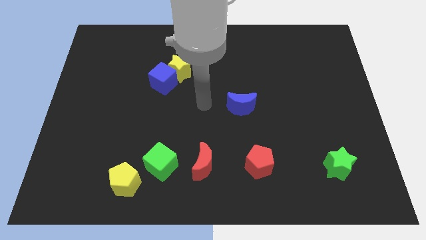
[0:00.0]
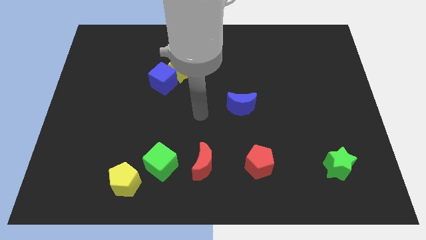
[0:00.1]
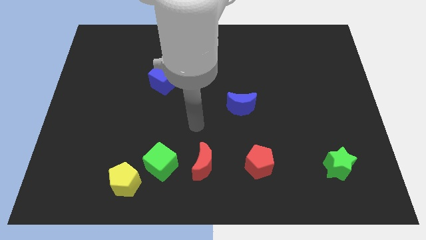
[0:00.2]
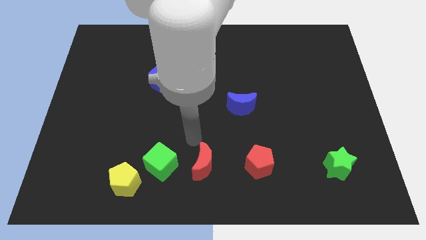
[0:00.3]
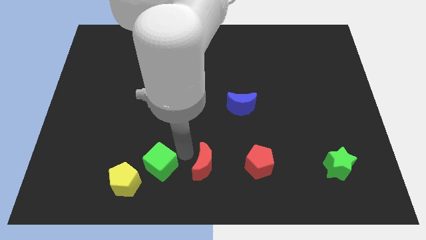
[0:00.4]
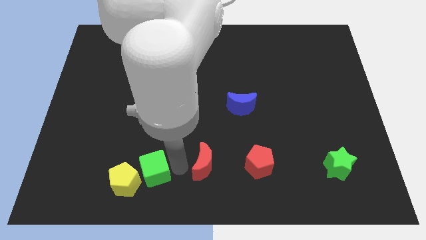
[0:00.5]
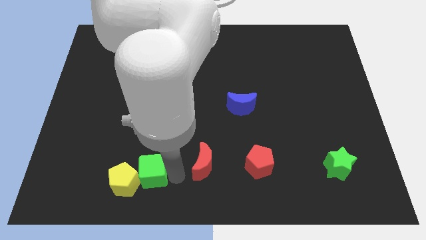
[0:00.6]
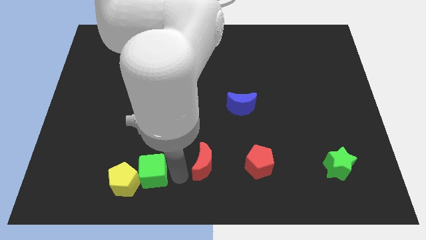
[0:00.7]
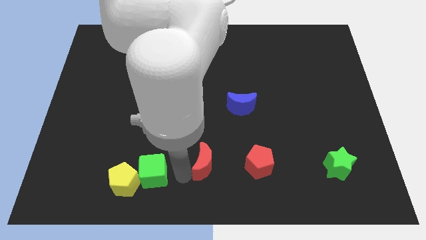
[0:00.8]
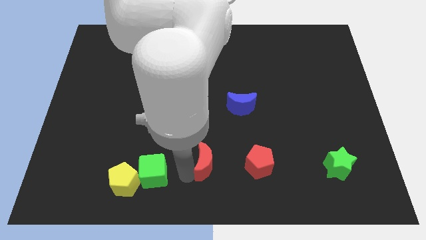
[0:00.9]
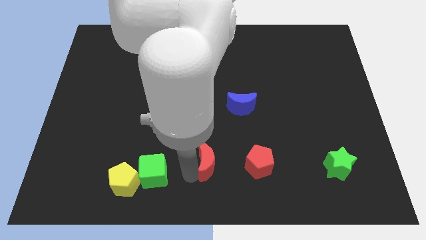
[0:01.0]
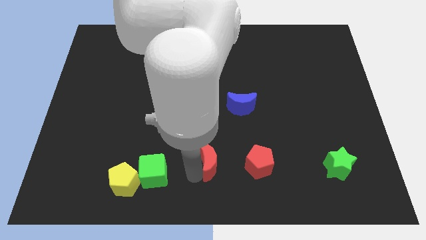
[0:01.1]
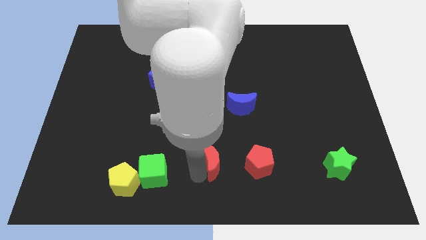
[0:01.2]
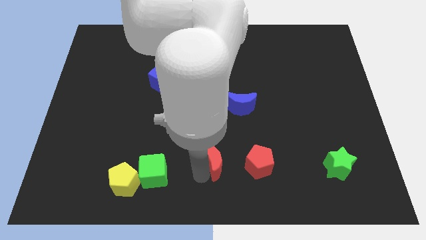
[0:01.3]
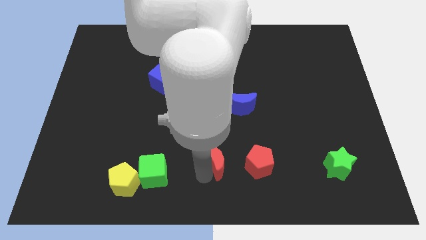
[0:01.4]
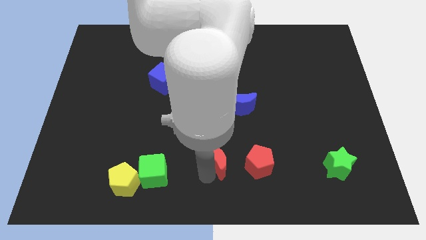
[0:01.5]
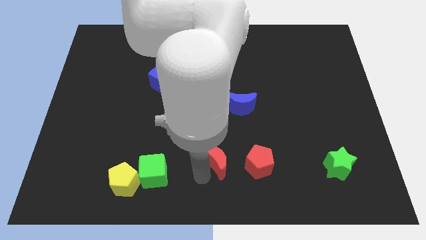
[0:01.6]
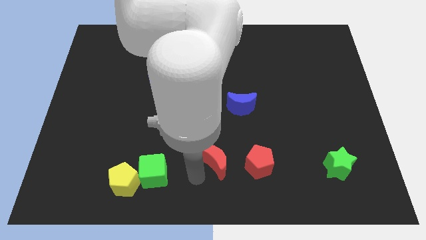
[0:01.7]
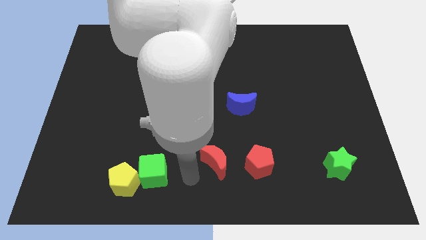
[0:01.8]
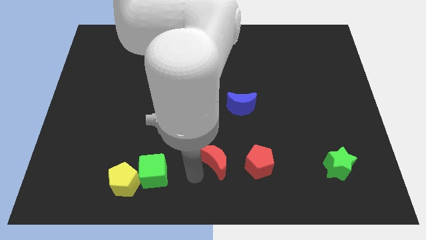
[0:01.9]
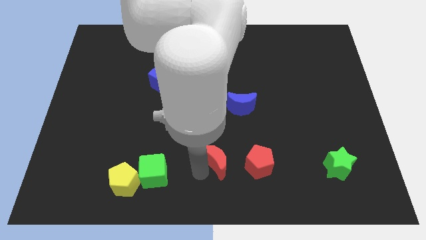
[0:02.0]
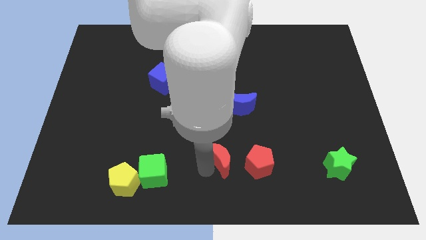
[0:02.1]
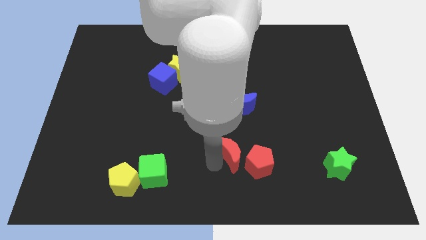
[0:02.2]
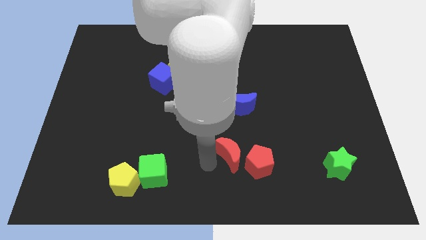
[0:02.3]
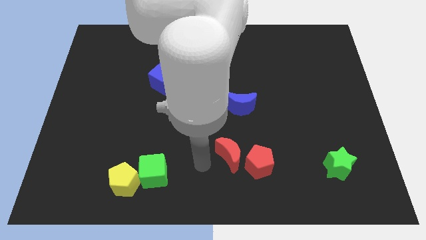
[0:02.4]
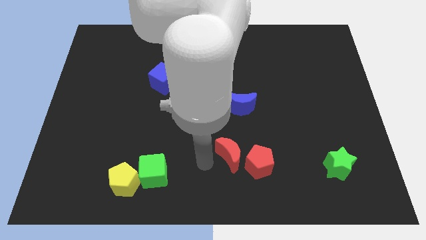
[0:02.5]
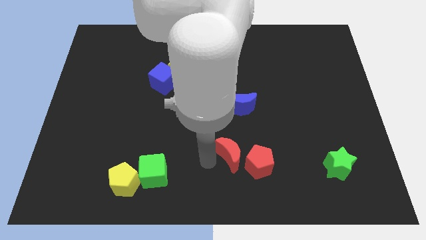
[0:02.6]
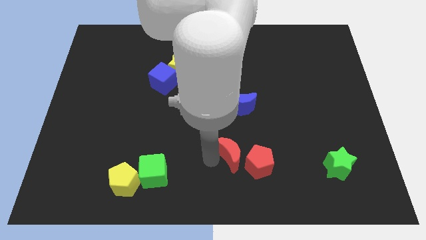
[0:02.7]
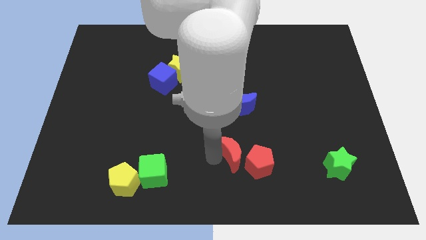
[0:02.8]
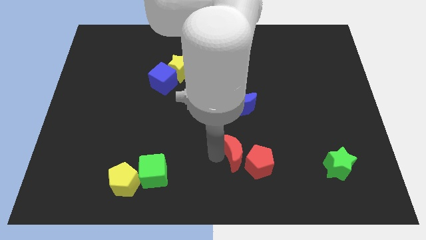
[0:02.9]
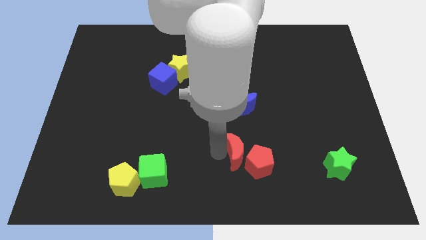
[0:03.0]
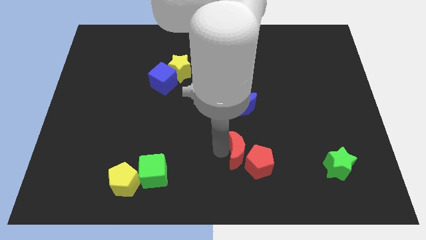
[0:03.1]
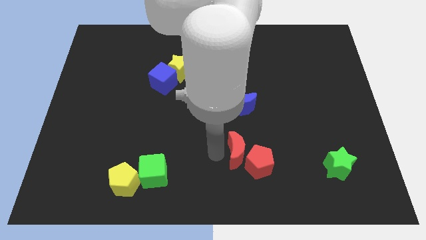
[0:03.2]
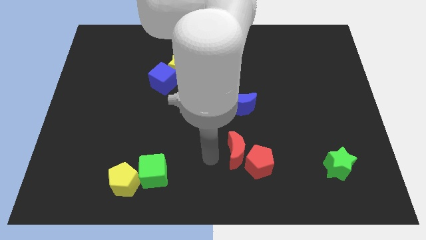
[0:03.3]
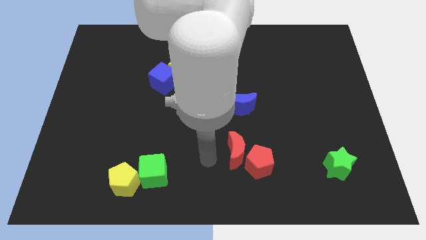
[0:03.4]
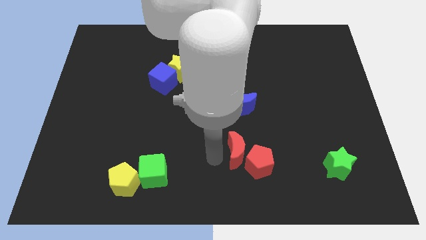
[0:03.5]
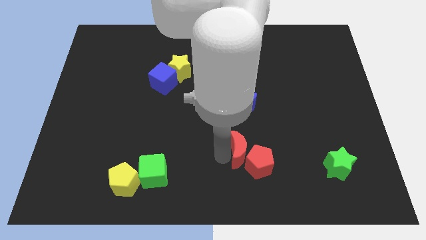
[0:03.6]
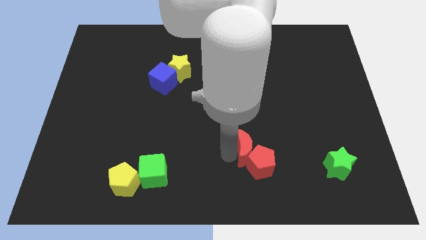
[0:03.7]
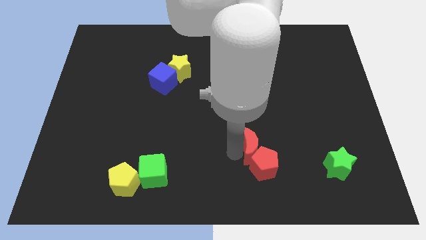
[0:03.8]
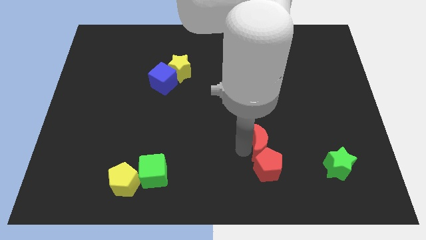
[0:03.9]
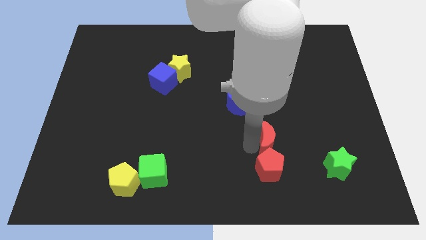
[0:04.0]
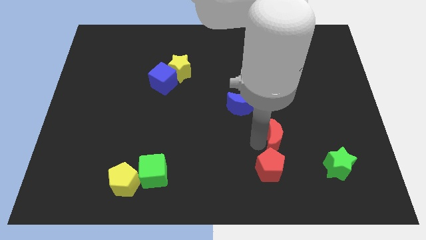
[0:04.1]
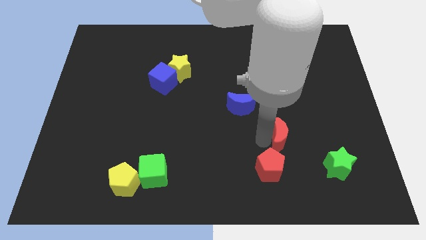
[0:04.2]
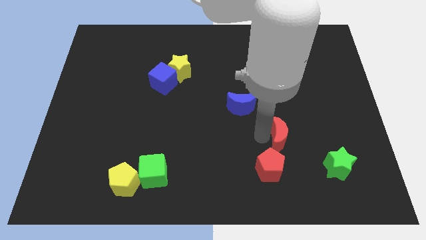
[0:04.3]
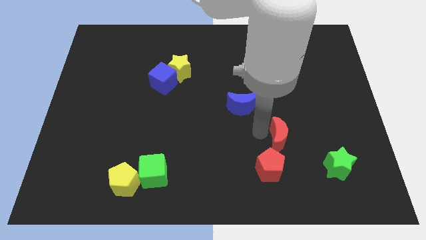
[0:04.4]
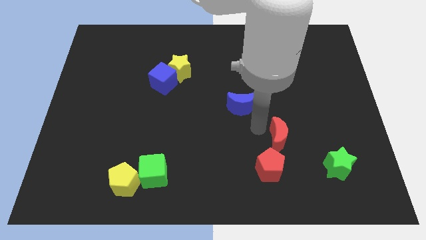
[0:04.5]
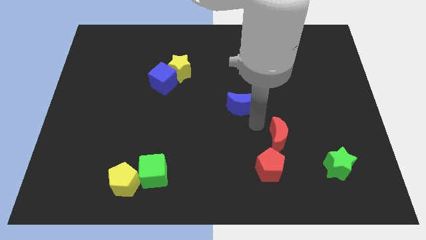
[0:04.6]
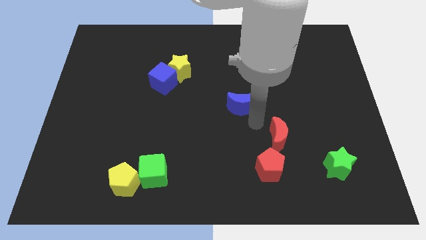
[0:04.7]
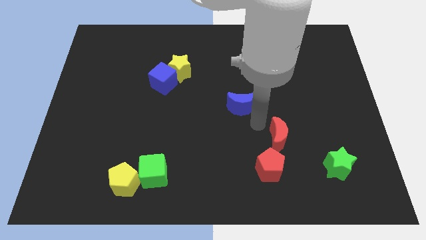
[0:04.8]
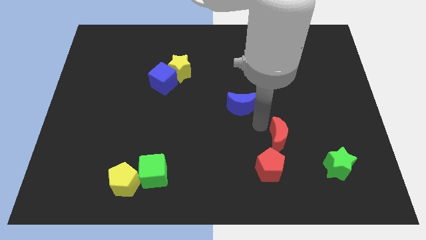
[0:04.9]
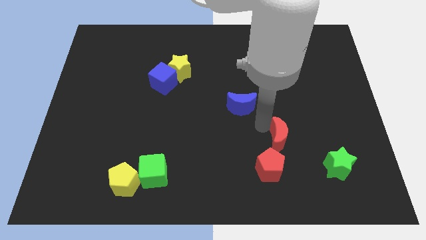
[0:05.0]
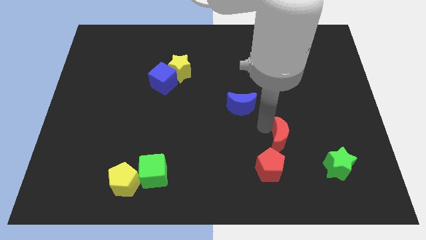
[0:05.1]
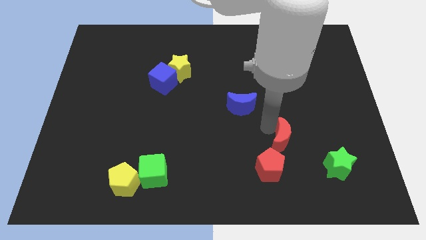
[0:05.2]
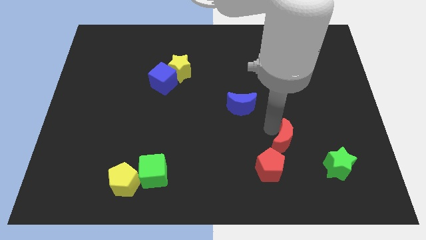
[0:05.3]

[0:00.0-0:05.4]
put the red moon to the top left of the green star
